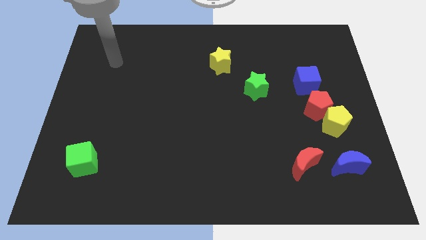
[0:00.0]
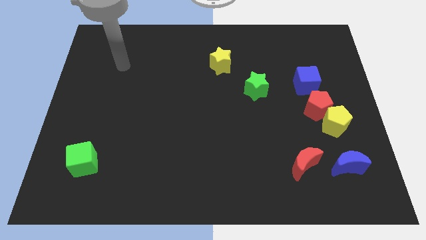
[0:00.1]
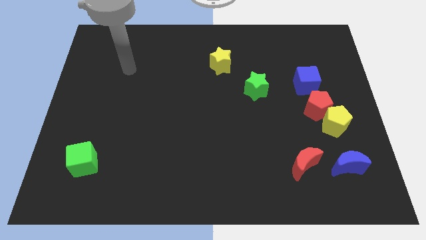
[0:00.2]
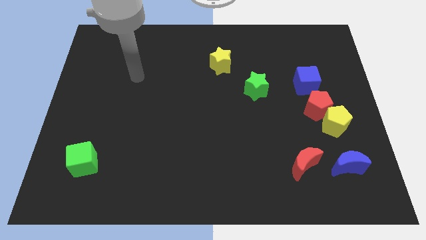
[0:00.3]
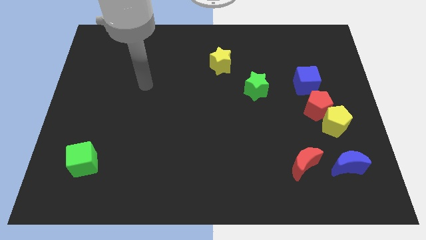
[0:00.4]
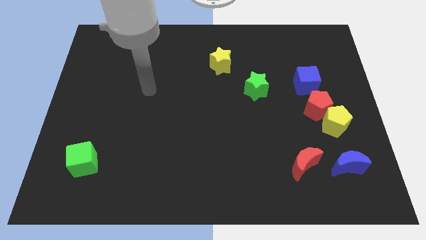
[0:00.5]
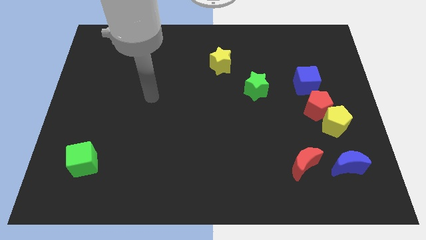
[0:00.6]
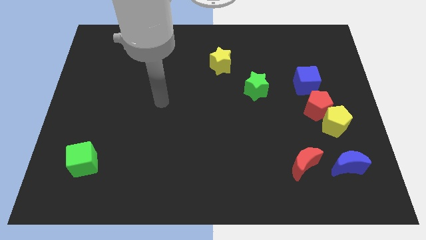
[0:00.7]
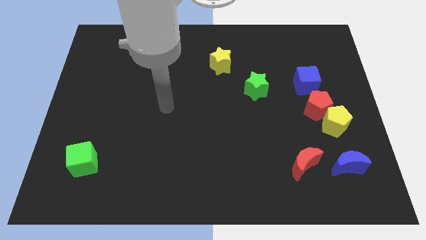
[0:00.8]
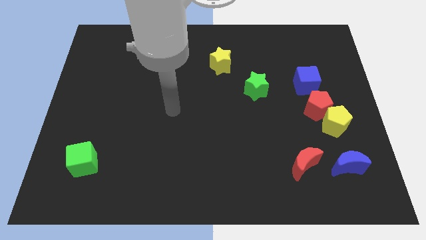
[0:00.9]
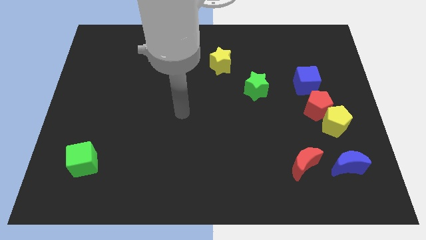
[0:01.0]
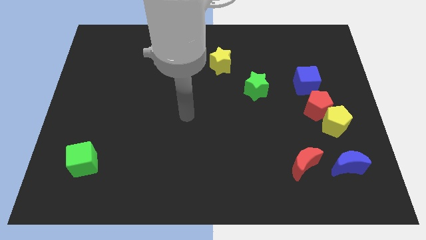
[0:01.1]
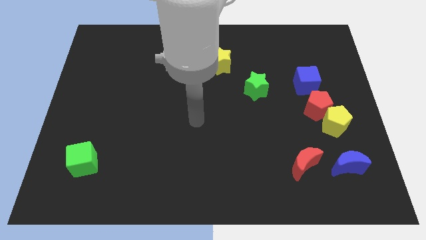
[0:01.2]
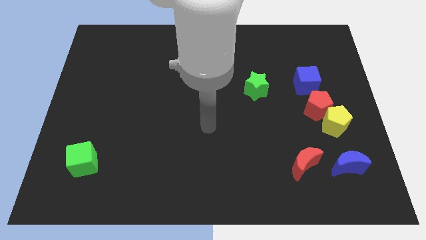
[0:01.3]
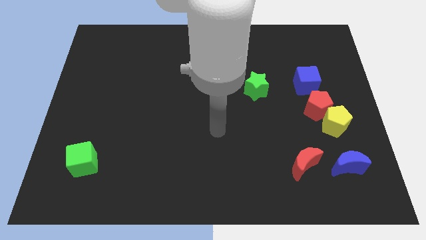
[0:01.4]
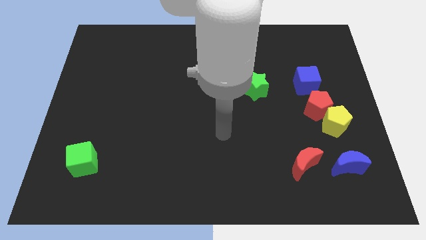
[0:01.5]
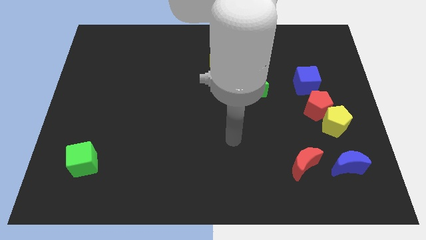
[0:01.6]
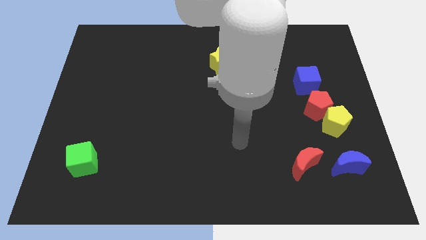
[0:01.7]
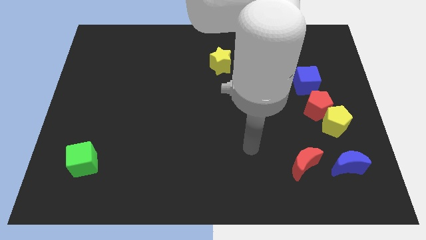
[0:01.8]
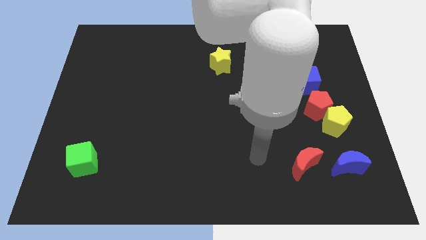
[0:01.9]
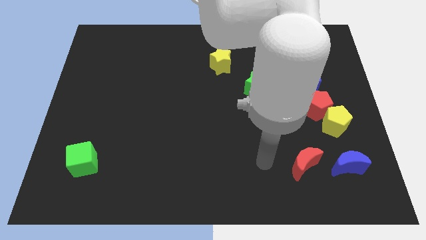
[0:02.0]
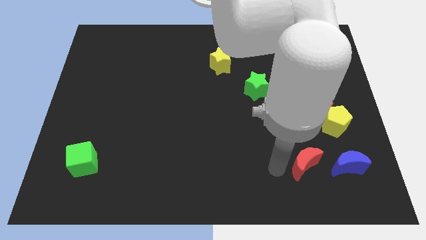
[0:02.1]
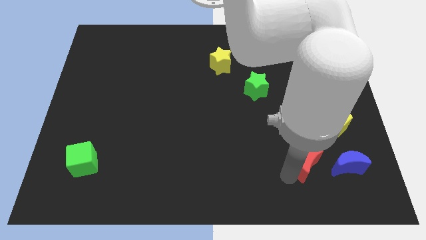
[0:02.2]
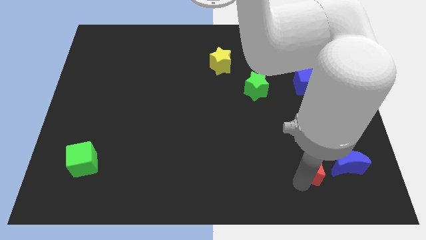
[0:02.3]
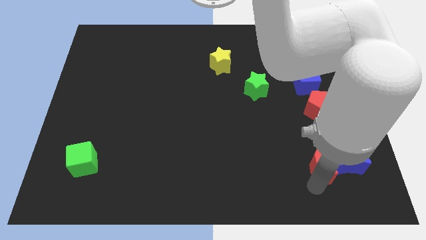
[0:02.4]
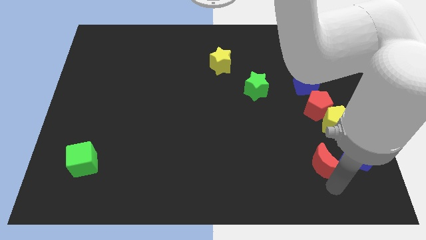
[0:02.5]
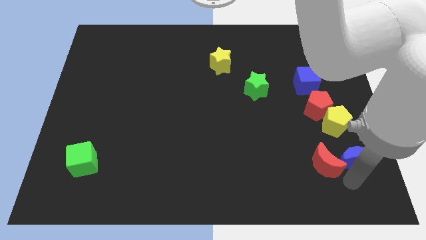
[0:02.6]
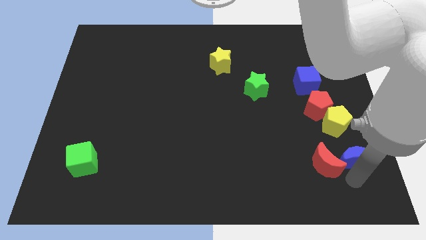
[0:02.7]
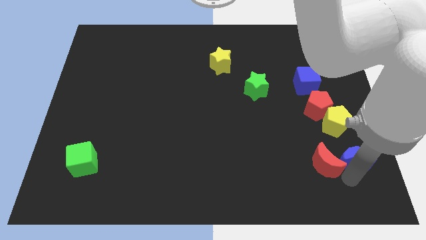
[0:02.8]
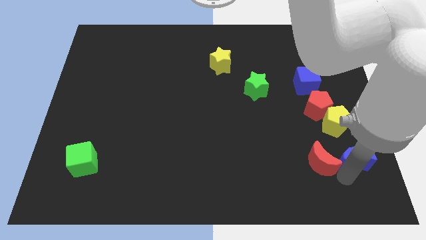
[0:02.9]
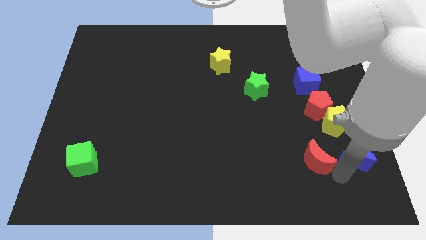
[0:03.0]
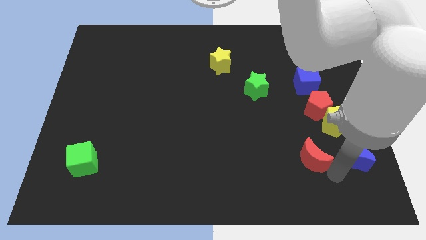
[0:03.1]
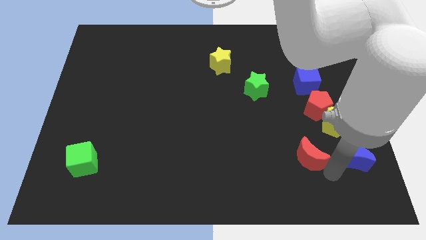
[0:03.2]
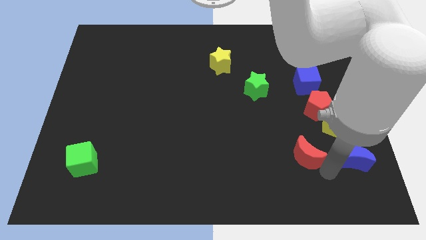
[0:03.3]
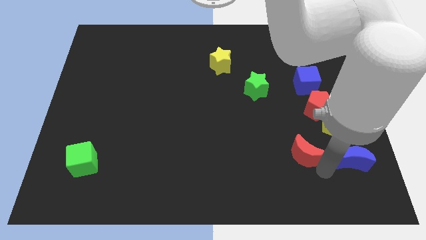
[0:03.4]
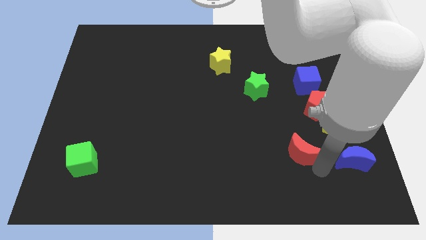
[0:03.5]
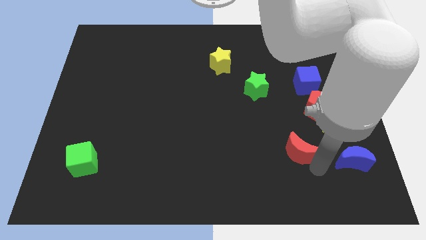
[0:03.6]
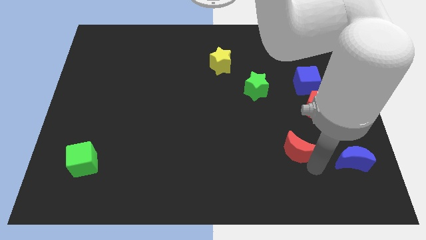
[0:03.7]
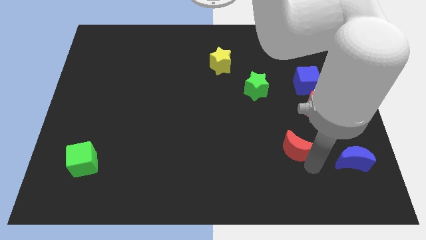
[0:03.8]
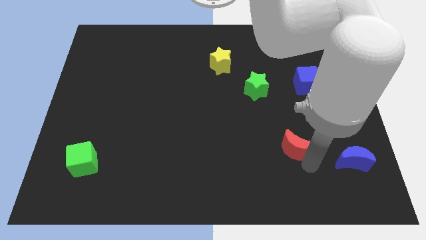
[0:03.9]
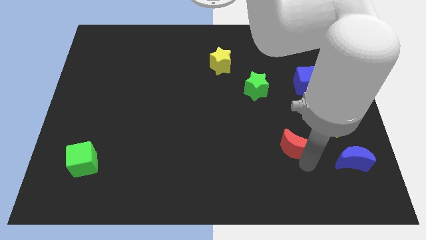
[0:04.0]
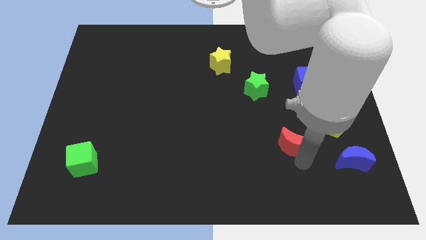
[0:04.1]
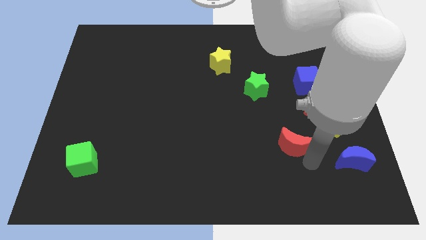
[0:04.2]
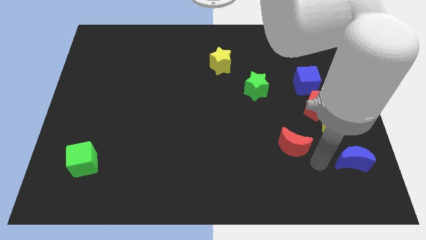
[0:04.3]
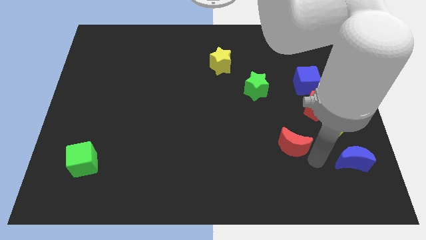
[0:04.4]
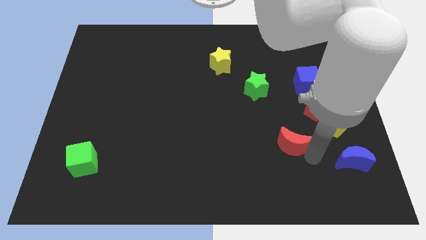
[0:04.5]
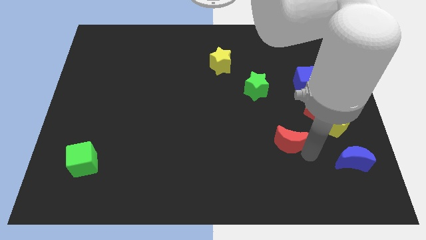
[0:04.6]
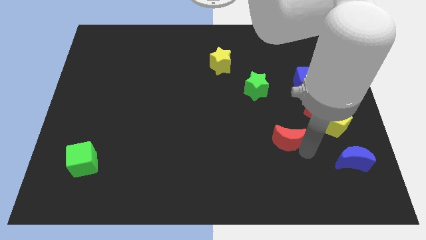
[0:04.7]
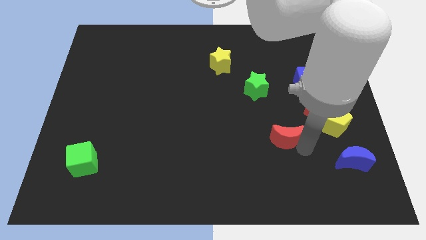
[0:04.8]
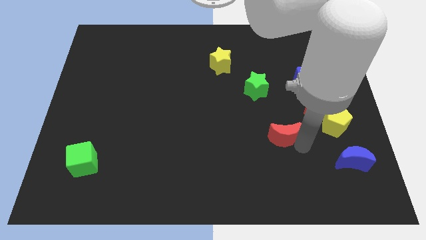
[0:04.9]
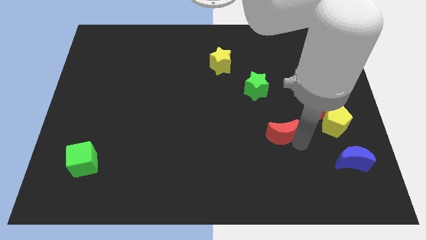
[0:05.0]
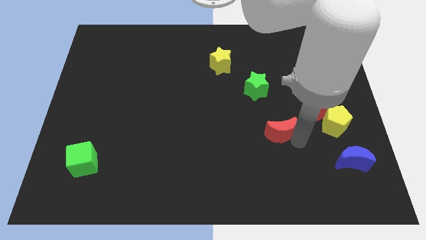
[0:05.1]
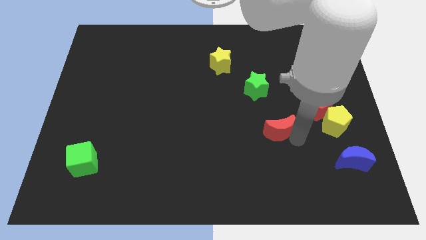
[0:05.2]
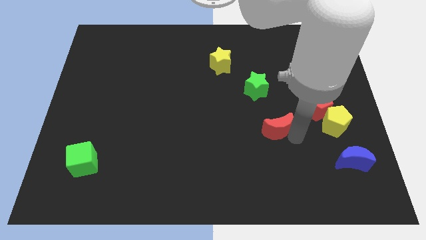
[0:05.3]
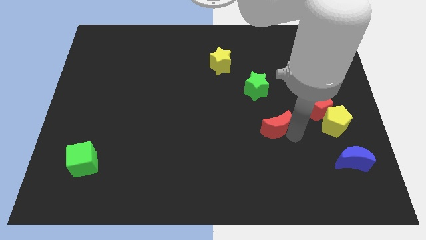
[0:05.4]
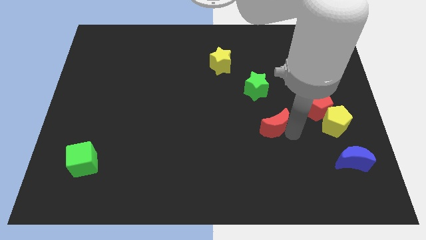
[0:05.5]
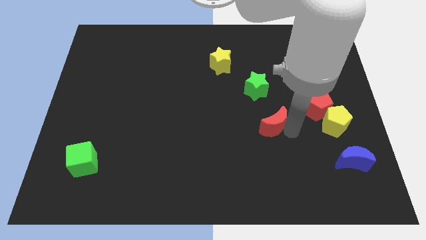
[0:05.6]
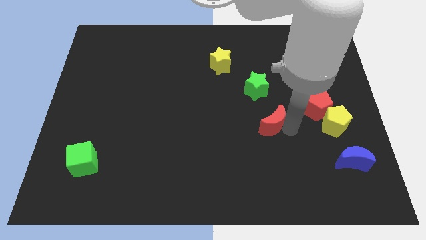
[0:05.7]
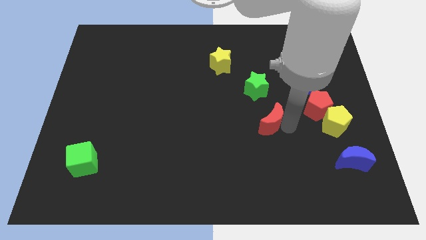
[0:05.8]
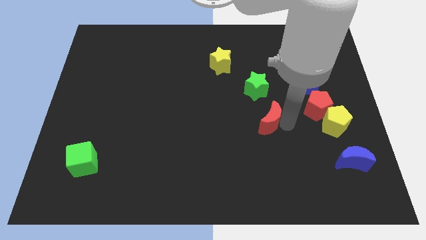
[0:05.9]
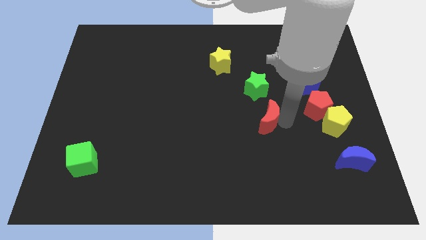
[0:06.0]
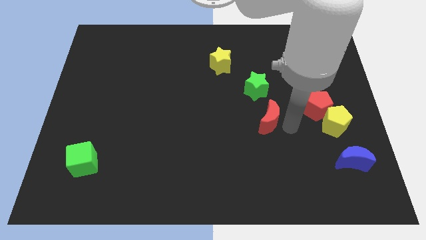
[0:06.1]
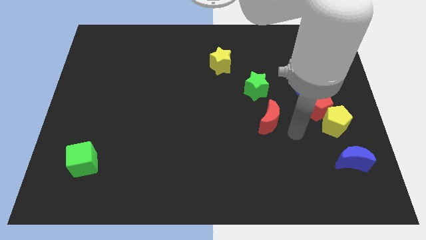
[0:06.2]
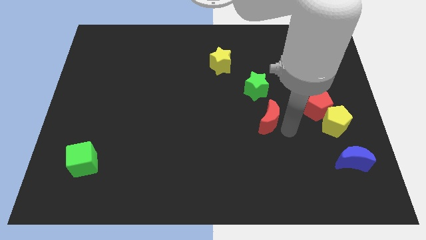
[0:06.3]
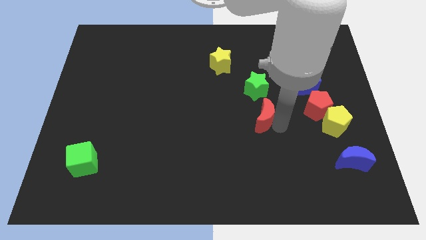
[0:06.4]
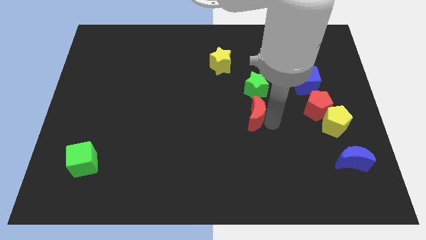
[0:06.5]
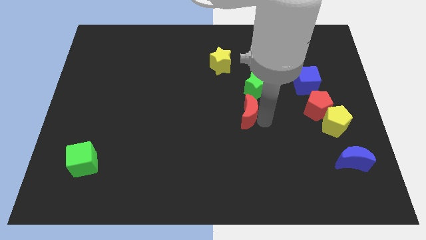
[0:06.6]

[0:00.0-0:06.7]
slide the red moon diagonally down and to the left of the green star

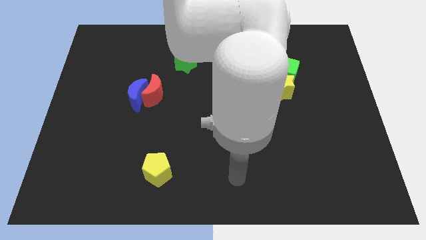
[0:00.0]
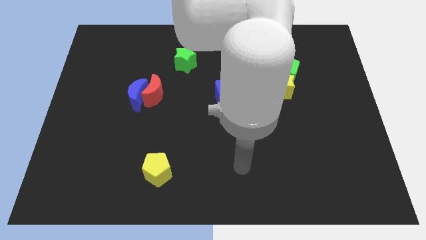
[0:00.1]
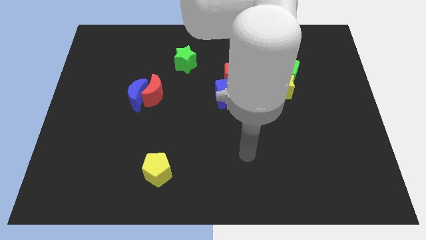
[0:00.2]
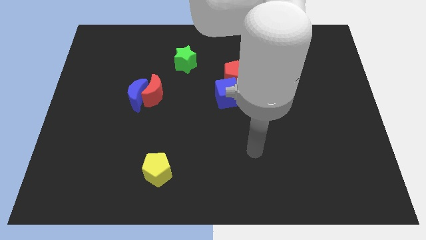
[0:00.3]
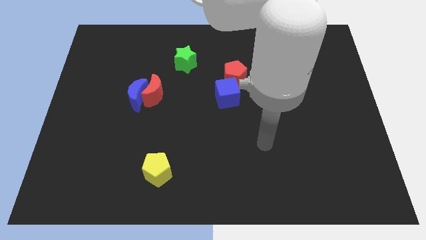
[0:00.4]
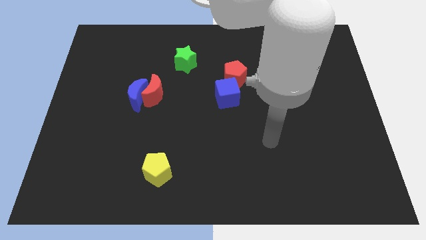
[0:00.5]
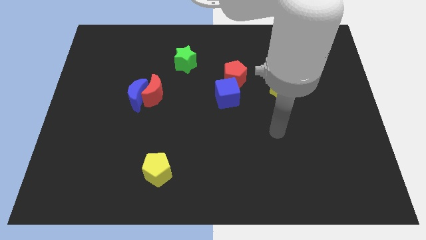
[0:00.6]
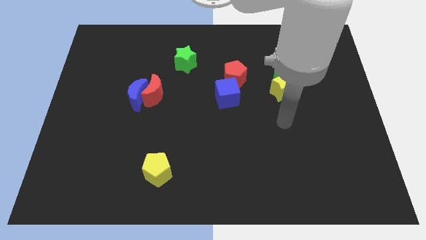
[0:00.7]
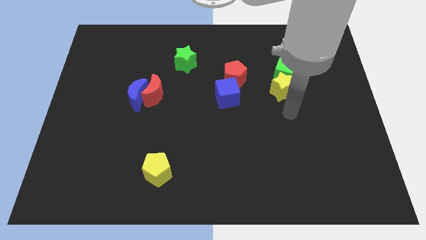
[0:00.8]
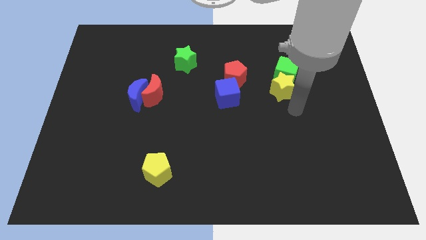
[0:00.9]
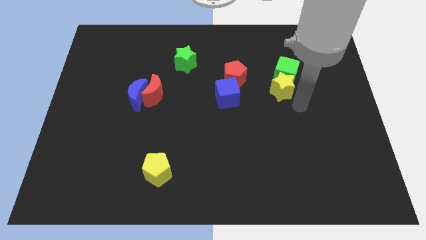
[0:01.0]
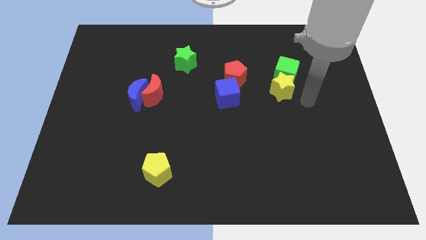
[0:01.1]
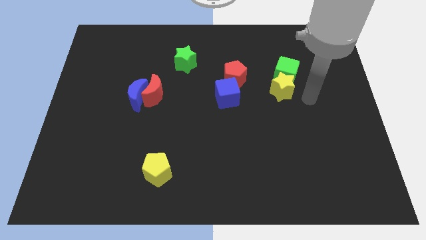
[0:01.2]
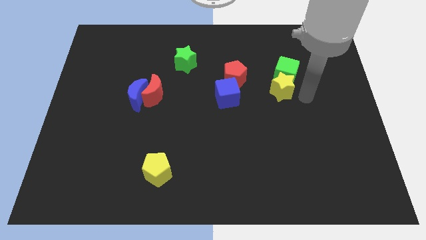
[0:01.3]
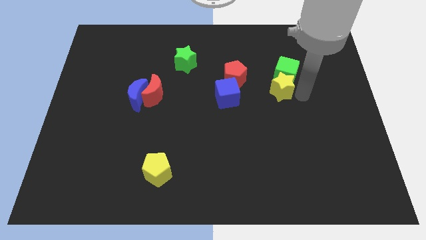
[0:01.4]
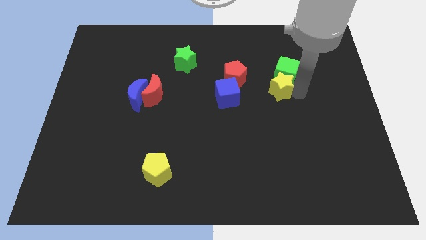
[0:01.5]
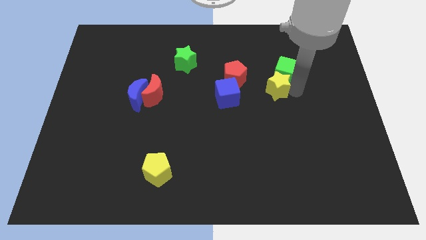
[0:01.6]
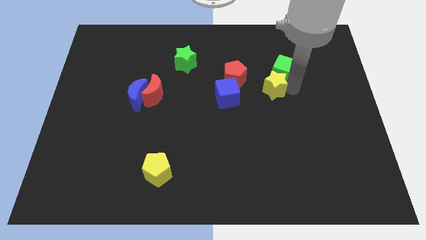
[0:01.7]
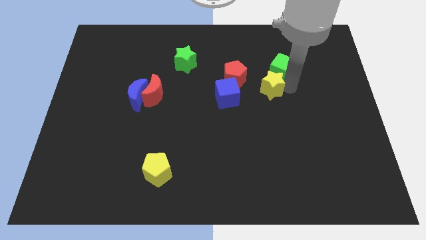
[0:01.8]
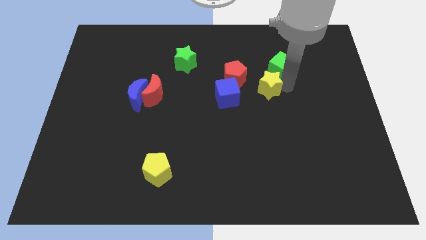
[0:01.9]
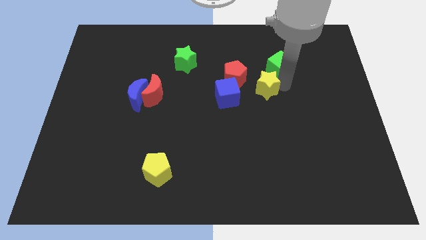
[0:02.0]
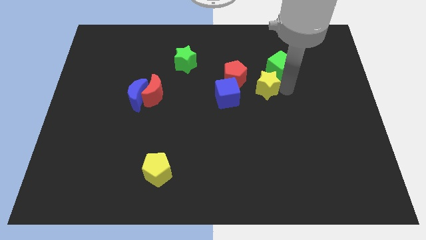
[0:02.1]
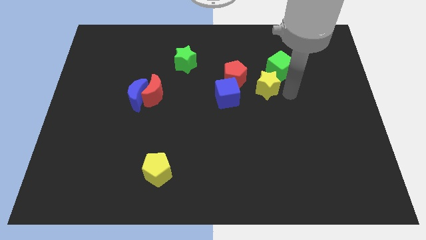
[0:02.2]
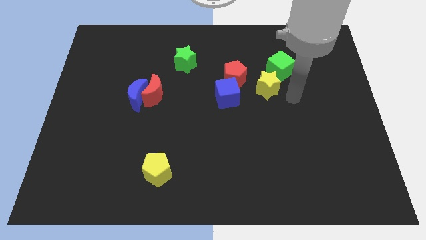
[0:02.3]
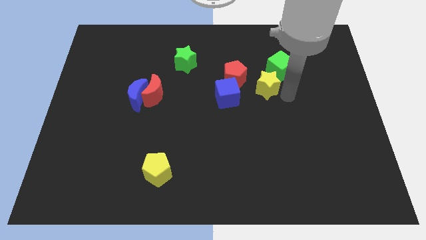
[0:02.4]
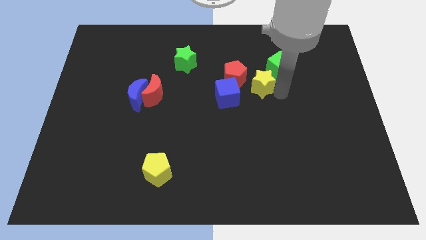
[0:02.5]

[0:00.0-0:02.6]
slide the yellow star to the top right side of the blue cube
